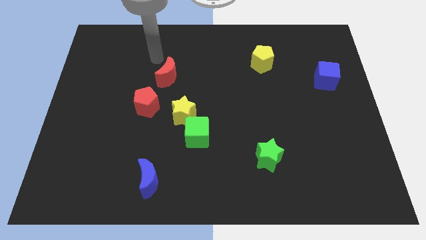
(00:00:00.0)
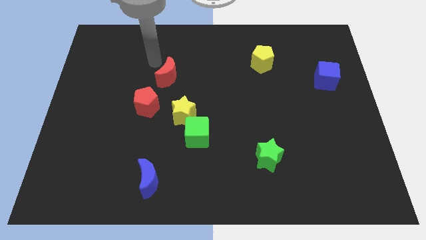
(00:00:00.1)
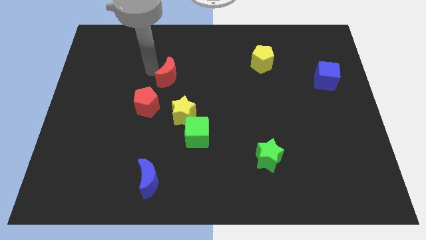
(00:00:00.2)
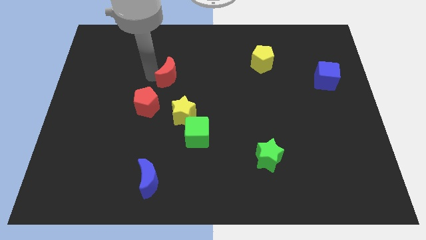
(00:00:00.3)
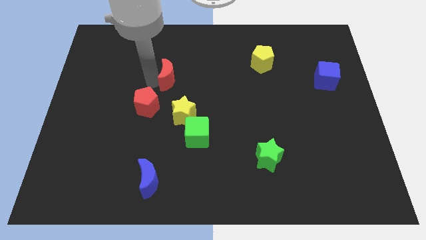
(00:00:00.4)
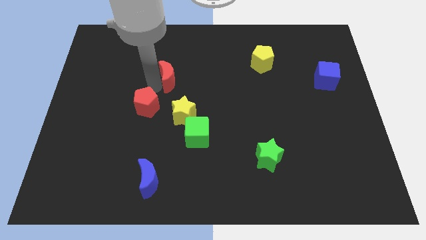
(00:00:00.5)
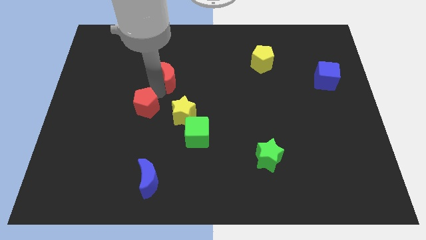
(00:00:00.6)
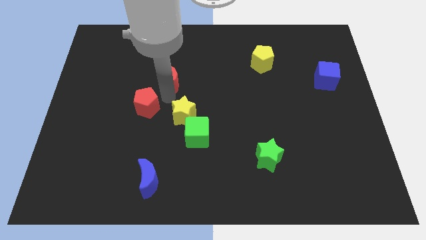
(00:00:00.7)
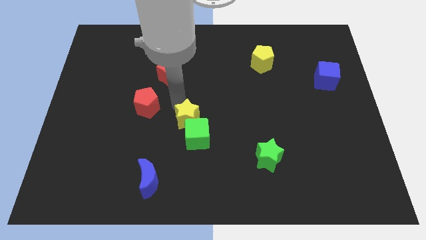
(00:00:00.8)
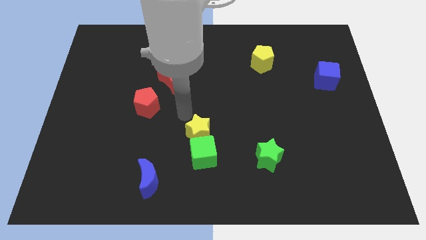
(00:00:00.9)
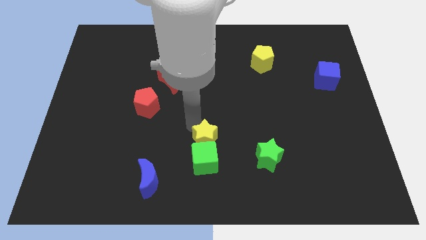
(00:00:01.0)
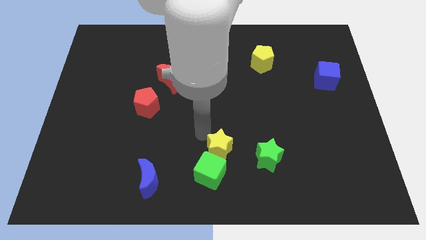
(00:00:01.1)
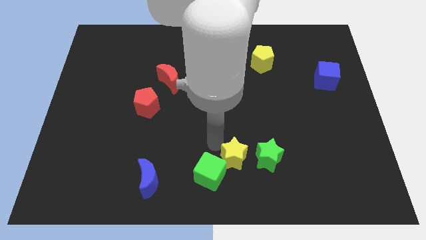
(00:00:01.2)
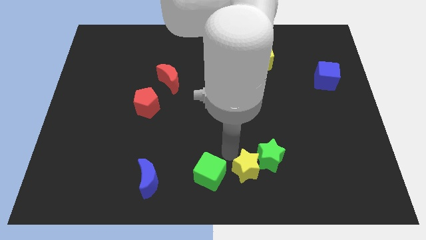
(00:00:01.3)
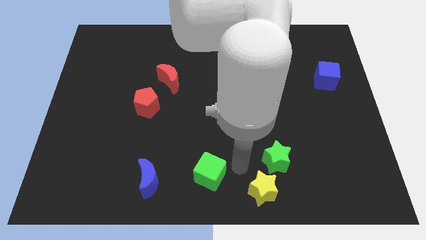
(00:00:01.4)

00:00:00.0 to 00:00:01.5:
pull the green cube apart from the yellow star

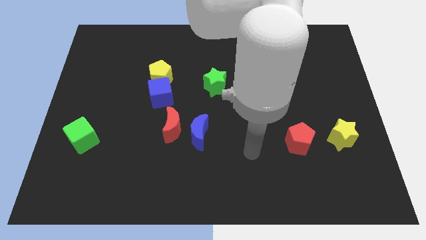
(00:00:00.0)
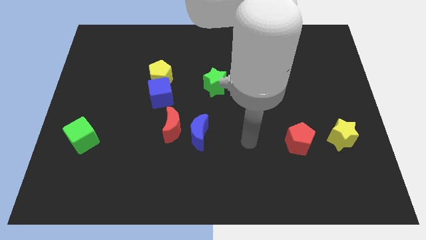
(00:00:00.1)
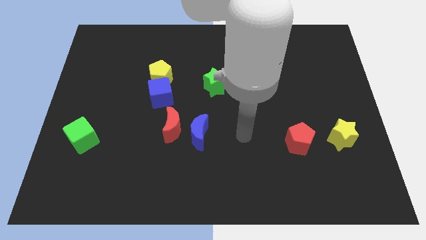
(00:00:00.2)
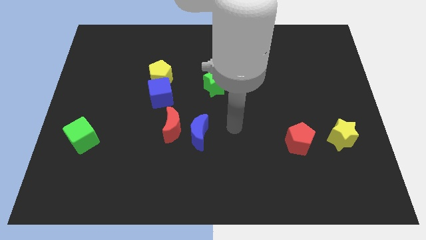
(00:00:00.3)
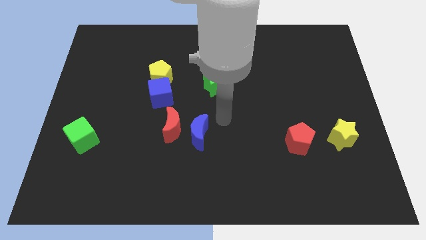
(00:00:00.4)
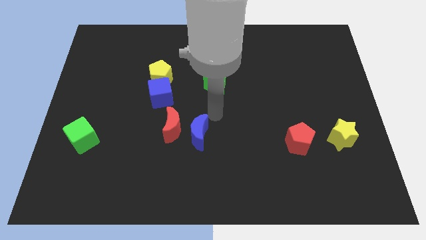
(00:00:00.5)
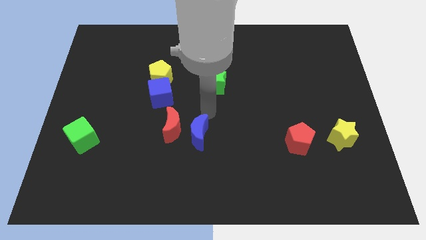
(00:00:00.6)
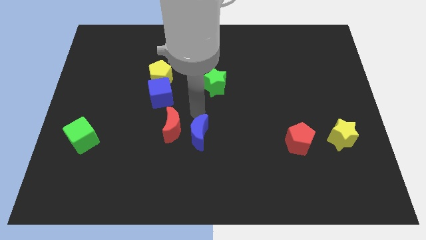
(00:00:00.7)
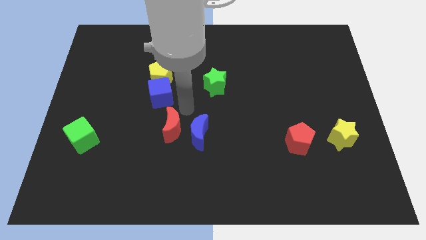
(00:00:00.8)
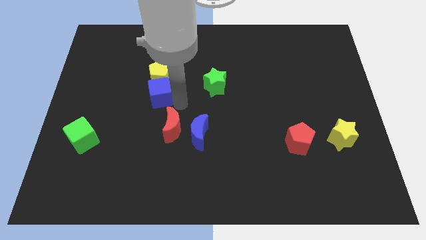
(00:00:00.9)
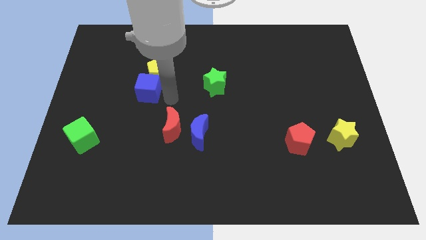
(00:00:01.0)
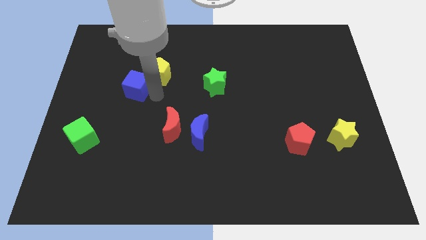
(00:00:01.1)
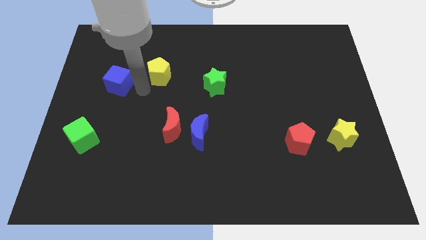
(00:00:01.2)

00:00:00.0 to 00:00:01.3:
move the yellow pentagon away from the blue cube

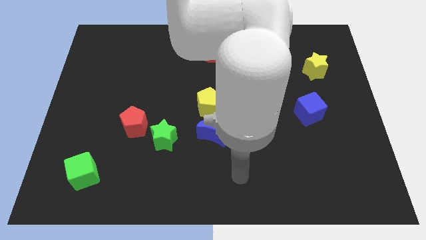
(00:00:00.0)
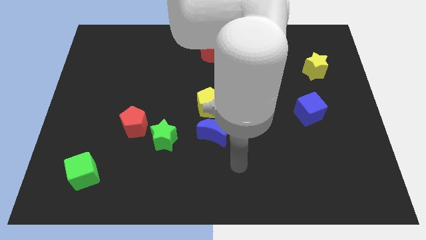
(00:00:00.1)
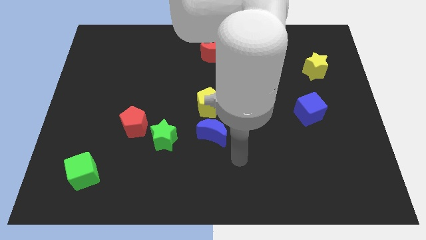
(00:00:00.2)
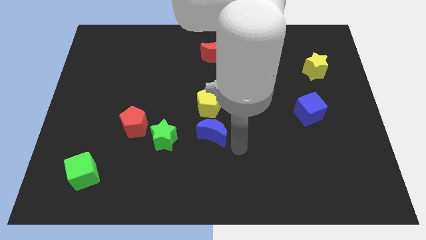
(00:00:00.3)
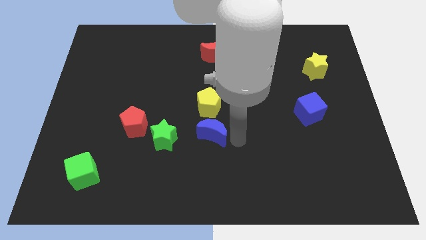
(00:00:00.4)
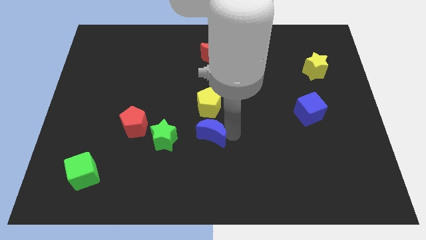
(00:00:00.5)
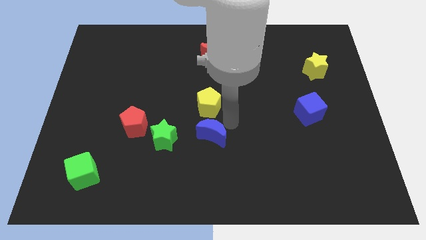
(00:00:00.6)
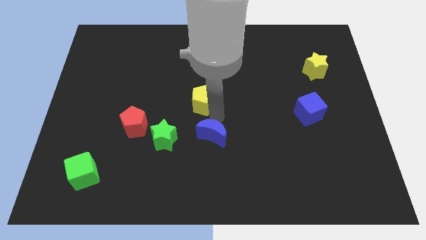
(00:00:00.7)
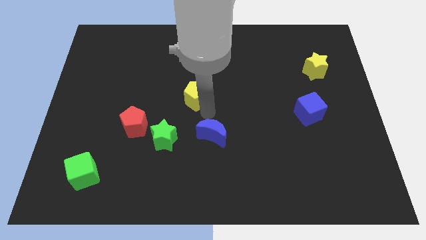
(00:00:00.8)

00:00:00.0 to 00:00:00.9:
separate the blue moon from the yellow pentagon

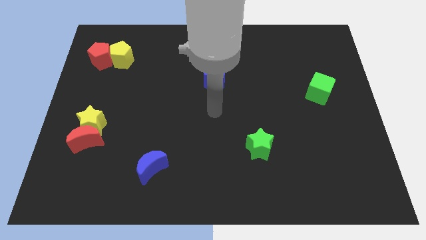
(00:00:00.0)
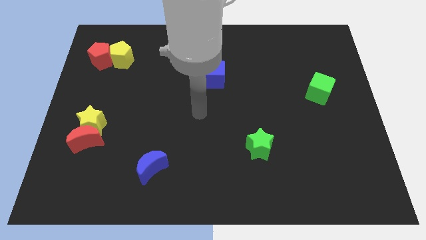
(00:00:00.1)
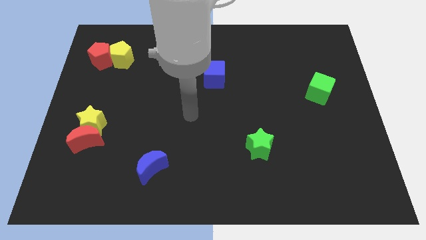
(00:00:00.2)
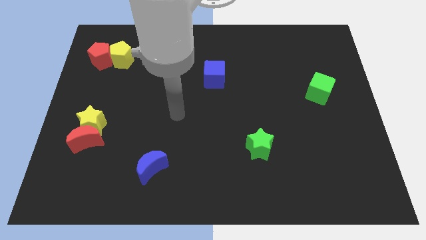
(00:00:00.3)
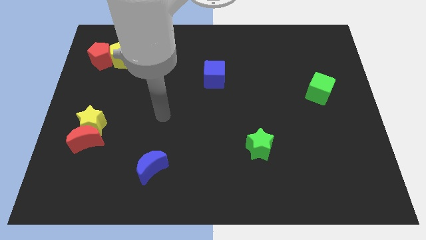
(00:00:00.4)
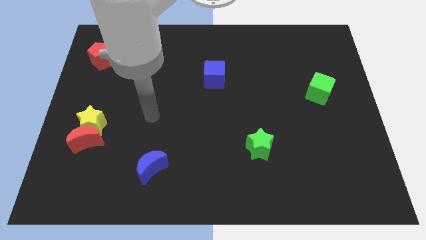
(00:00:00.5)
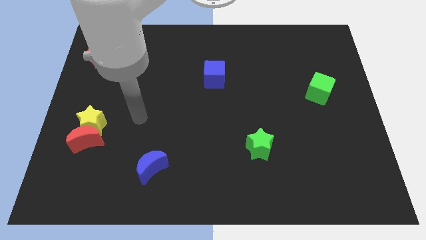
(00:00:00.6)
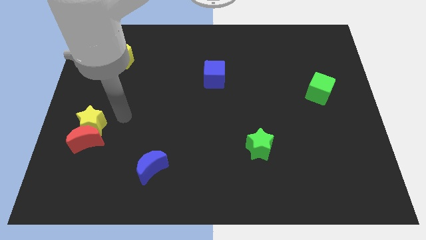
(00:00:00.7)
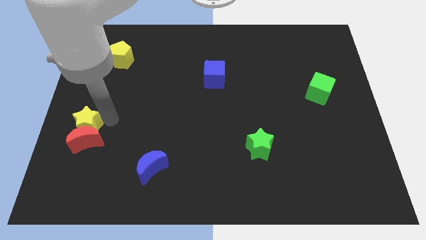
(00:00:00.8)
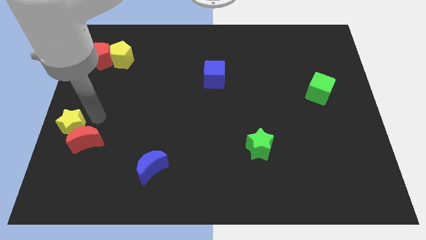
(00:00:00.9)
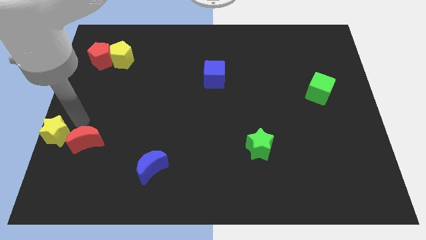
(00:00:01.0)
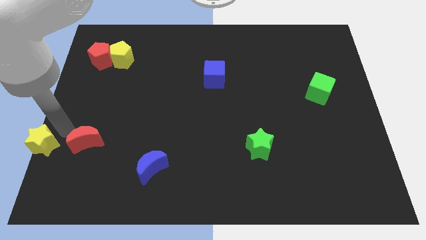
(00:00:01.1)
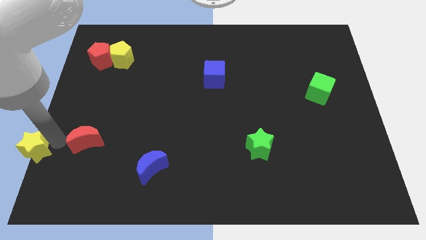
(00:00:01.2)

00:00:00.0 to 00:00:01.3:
separate the red moon from the yellow star

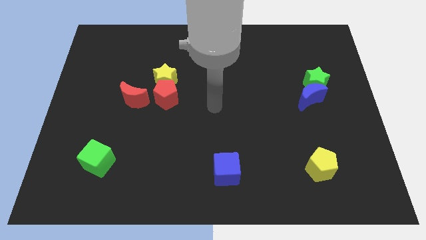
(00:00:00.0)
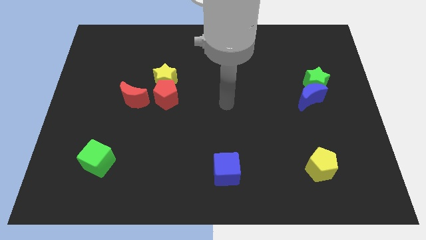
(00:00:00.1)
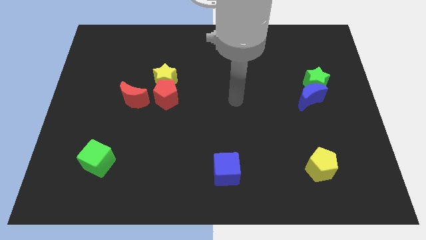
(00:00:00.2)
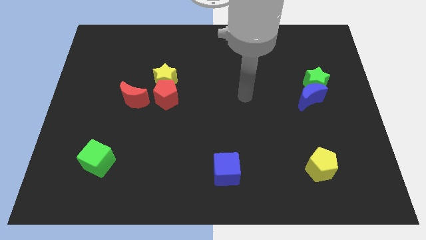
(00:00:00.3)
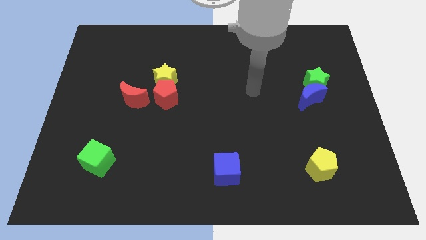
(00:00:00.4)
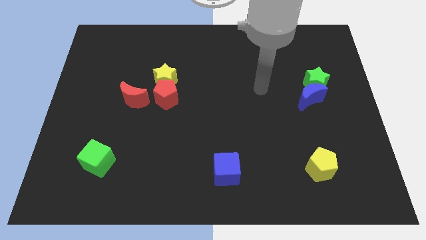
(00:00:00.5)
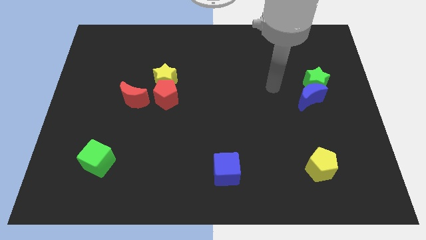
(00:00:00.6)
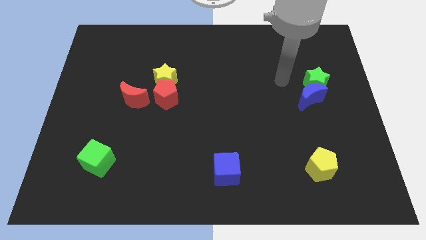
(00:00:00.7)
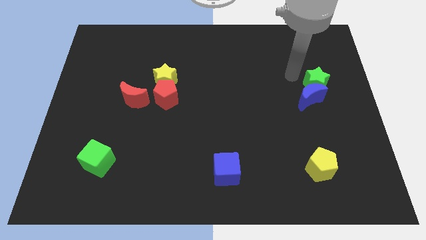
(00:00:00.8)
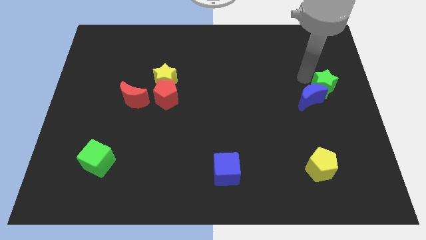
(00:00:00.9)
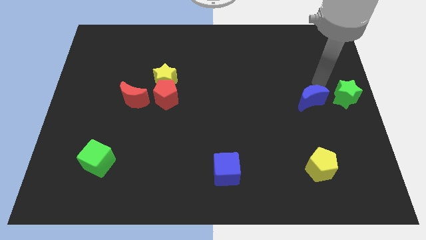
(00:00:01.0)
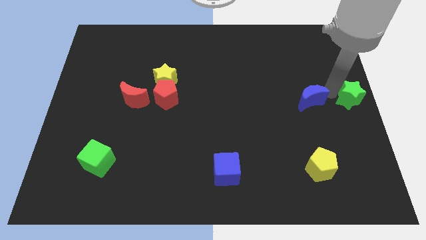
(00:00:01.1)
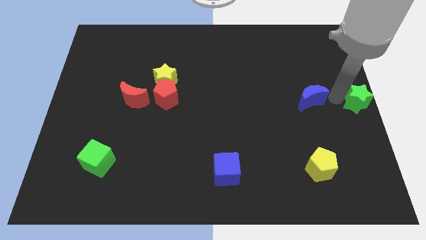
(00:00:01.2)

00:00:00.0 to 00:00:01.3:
pull the blue moon apart from the green star

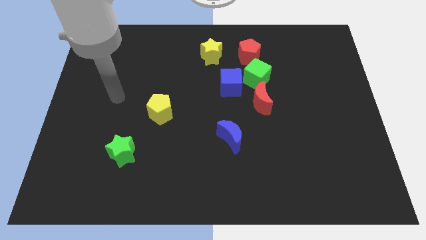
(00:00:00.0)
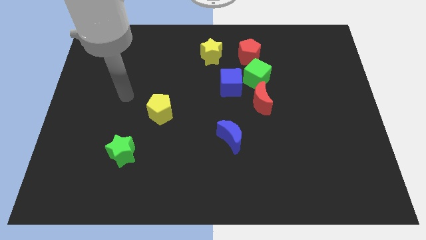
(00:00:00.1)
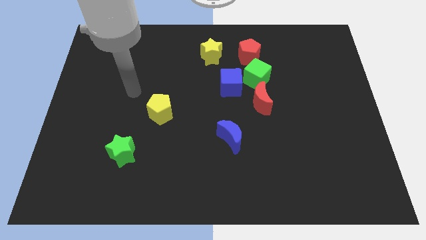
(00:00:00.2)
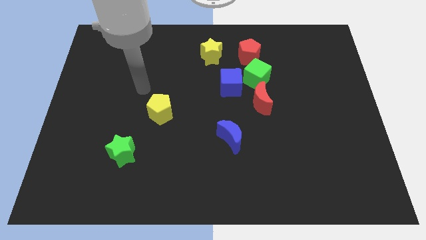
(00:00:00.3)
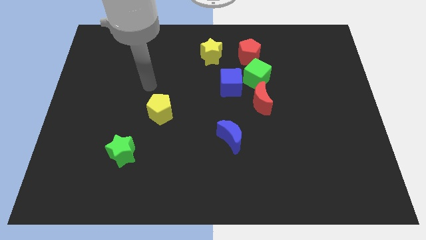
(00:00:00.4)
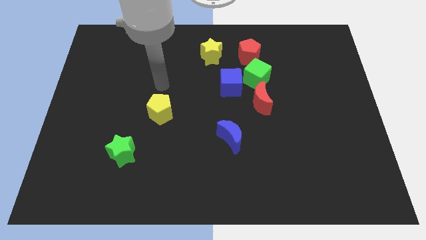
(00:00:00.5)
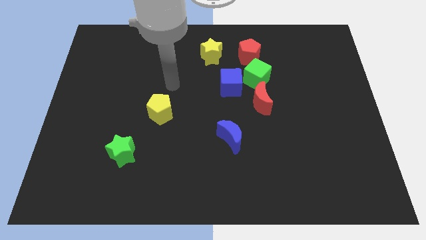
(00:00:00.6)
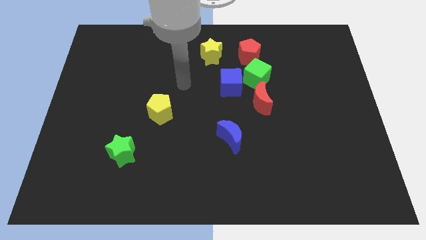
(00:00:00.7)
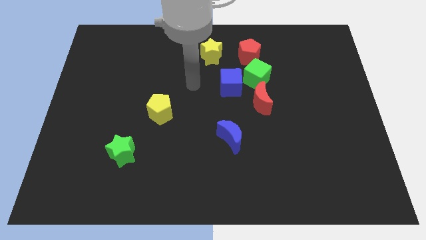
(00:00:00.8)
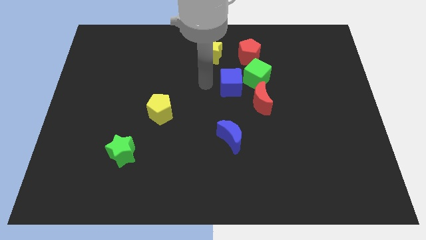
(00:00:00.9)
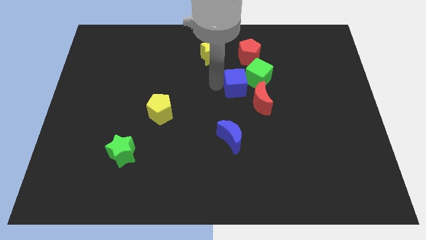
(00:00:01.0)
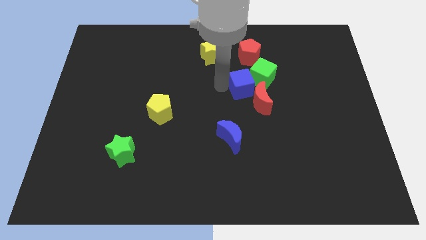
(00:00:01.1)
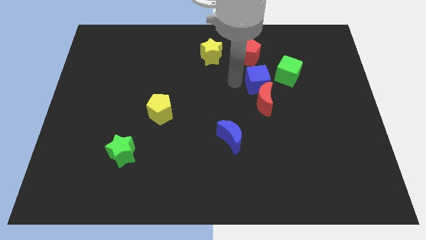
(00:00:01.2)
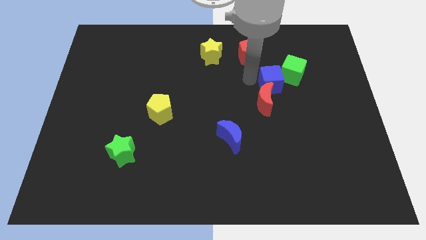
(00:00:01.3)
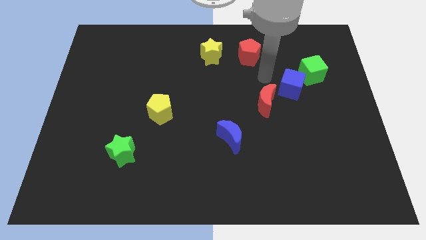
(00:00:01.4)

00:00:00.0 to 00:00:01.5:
move the green cube away from the group

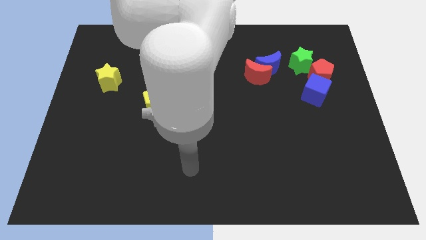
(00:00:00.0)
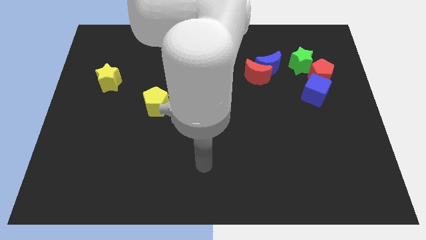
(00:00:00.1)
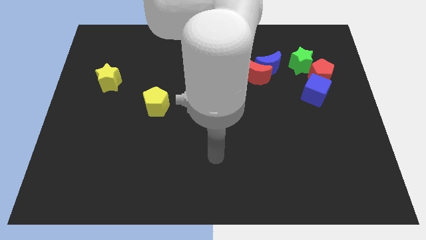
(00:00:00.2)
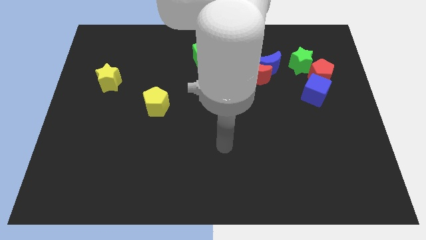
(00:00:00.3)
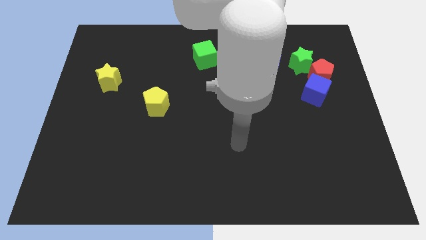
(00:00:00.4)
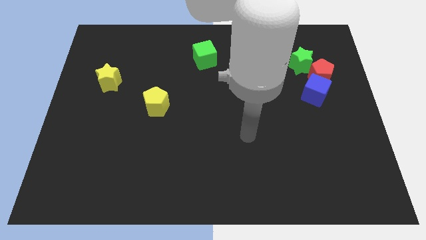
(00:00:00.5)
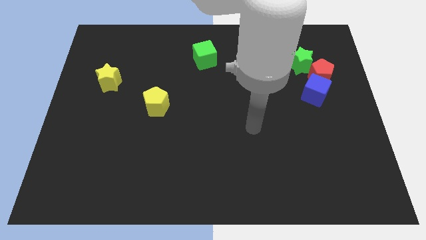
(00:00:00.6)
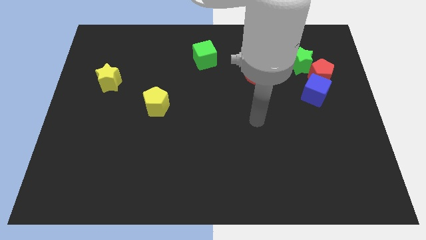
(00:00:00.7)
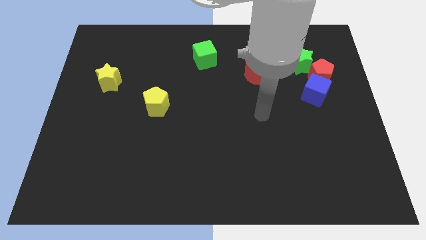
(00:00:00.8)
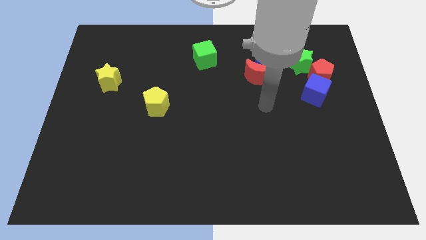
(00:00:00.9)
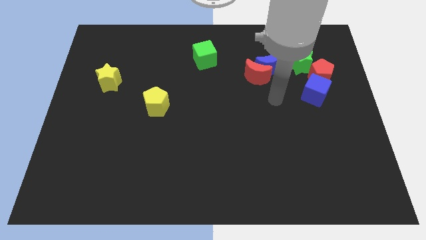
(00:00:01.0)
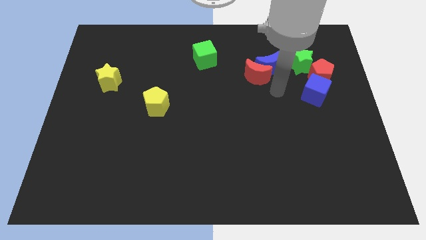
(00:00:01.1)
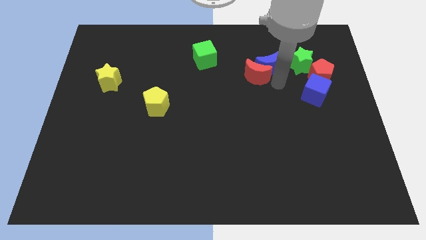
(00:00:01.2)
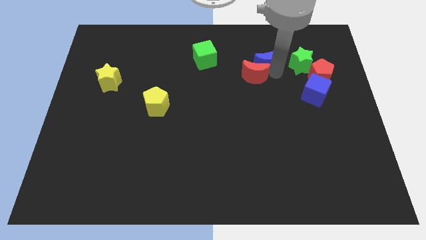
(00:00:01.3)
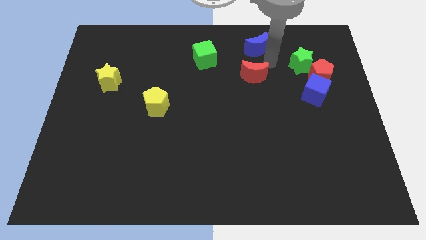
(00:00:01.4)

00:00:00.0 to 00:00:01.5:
move the red moon away from the blue moon

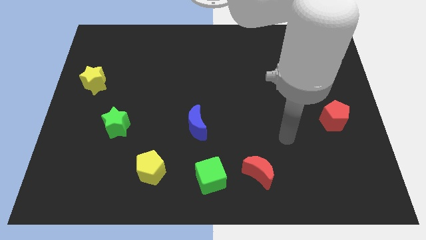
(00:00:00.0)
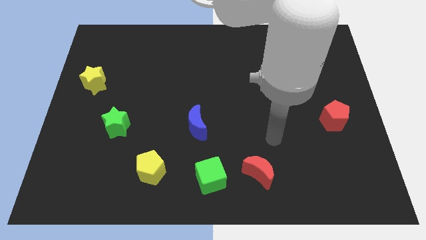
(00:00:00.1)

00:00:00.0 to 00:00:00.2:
pull the red moon apart from the green cube
